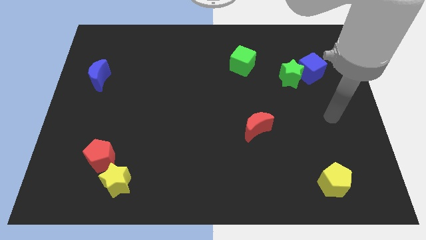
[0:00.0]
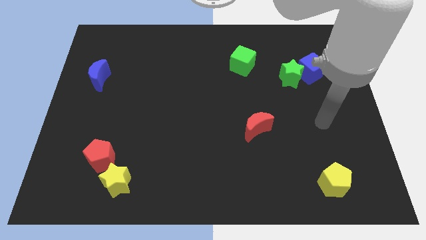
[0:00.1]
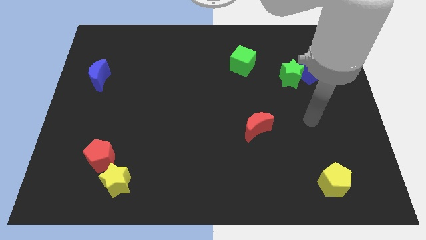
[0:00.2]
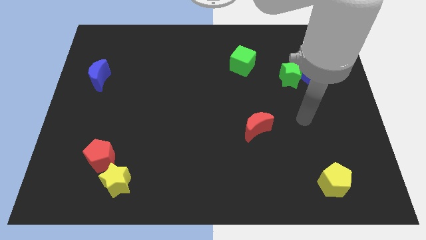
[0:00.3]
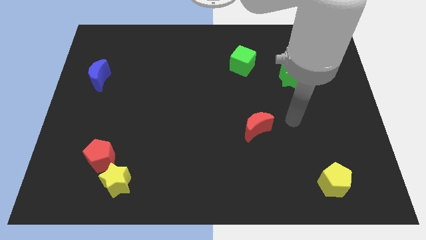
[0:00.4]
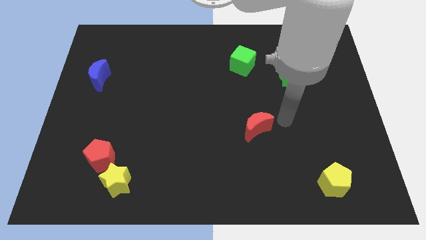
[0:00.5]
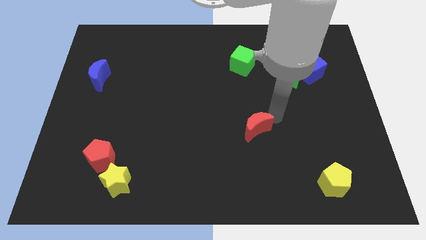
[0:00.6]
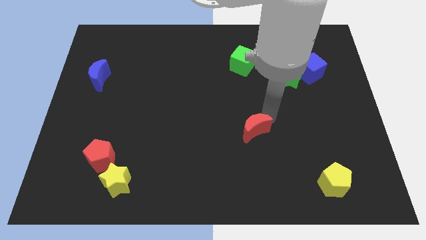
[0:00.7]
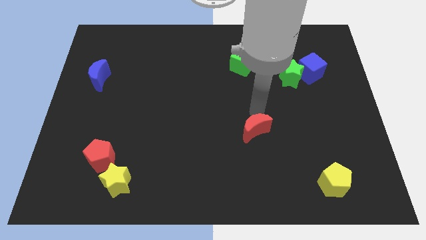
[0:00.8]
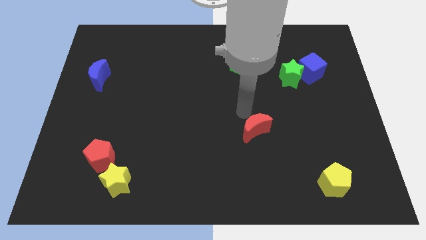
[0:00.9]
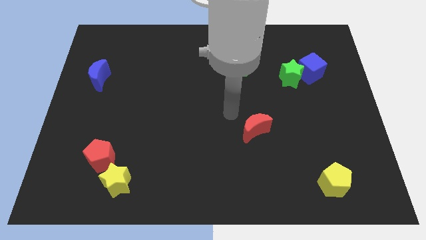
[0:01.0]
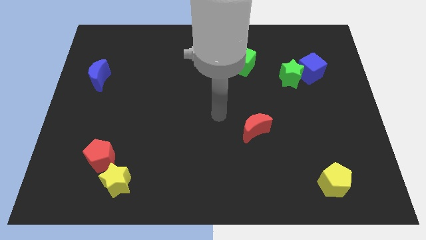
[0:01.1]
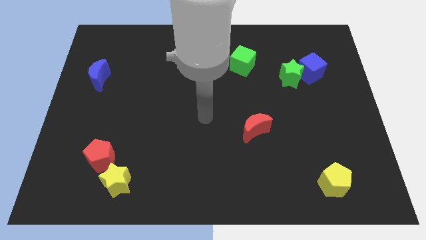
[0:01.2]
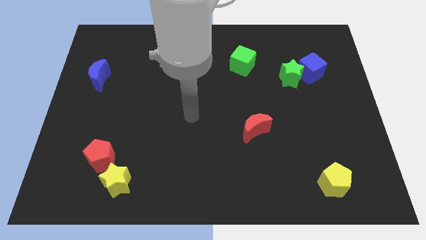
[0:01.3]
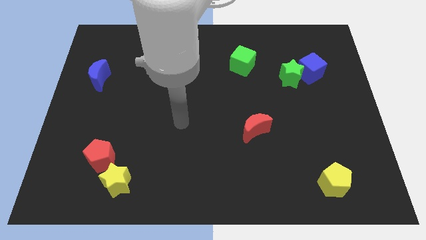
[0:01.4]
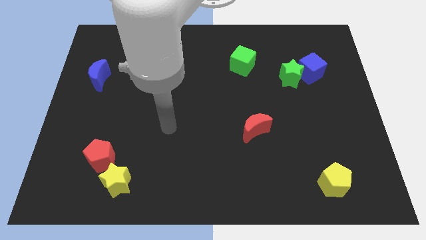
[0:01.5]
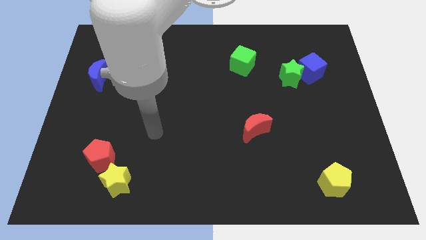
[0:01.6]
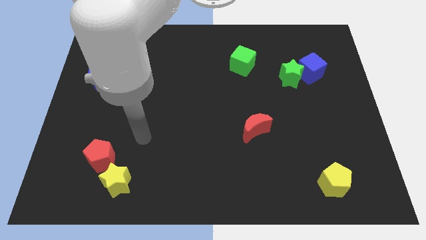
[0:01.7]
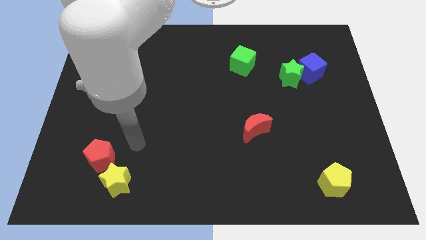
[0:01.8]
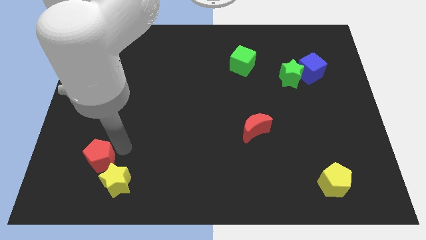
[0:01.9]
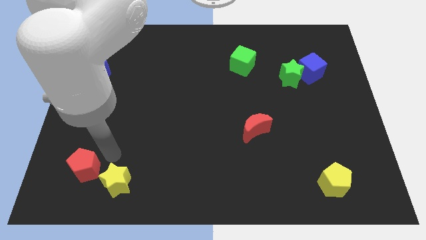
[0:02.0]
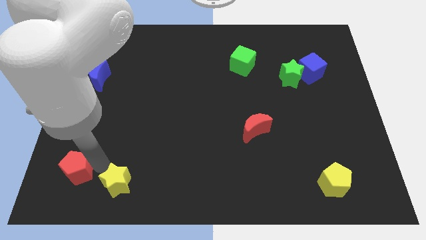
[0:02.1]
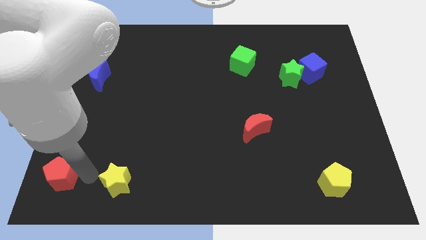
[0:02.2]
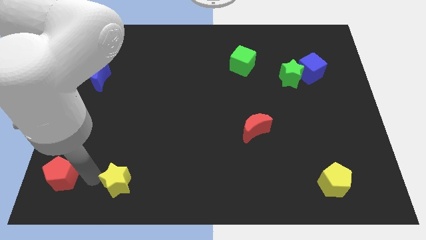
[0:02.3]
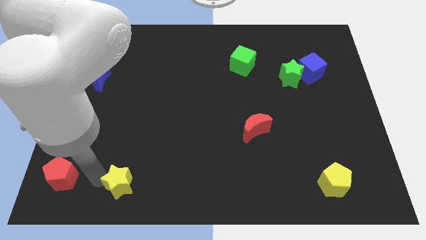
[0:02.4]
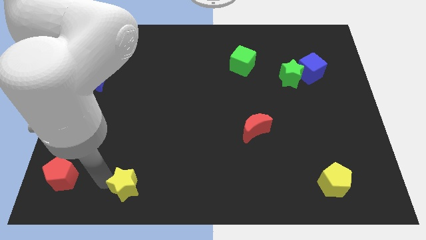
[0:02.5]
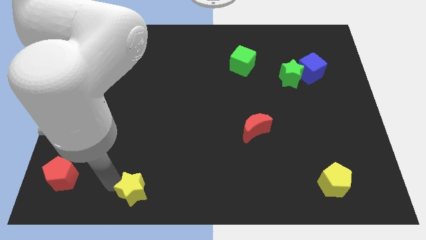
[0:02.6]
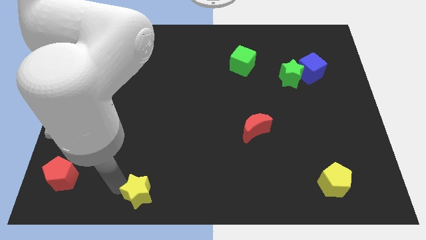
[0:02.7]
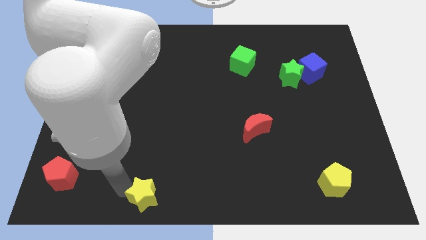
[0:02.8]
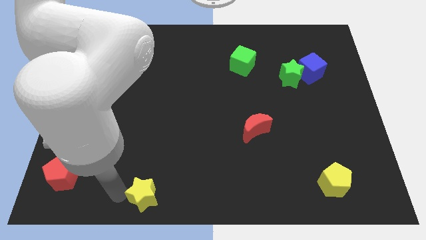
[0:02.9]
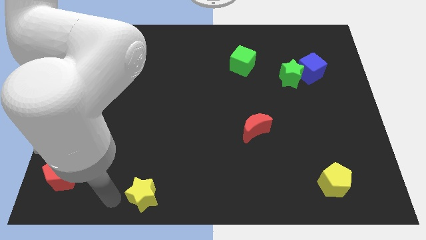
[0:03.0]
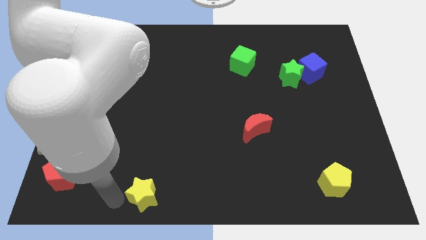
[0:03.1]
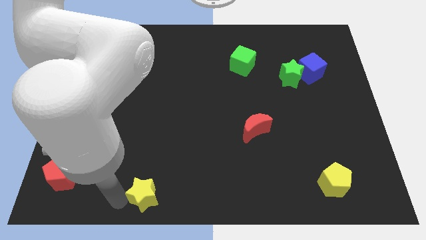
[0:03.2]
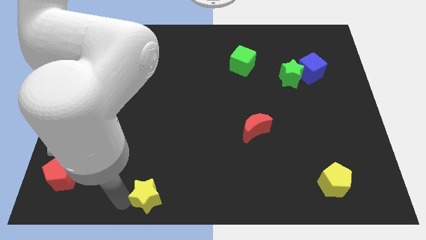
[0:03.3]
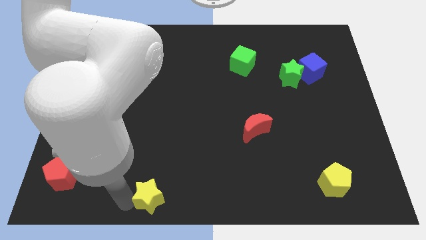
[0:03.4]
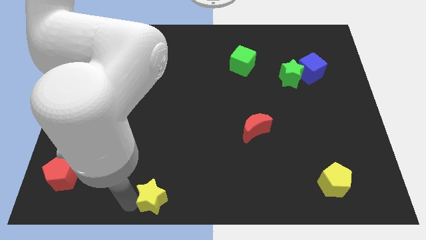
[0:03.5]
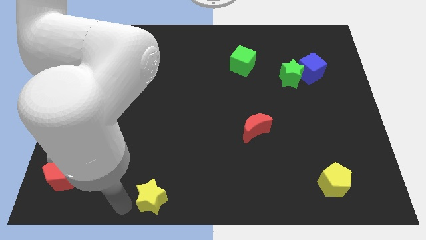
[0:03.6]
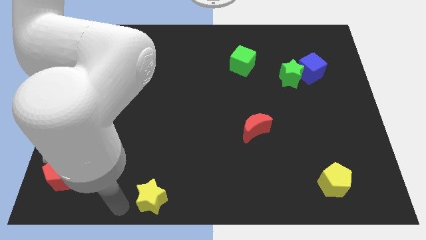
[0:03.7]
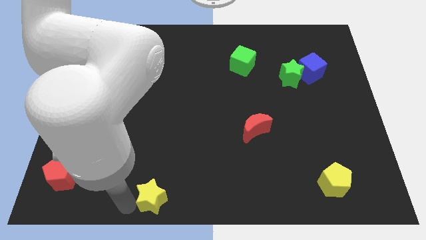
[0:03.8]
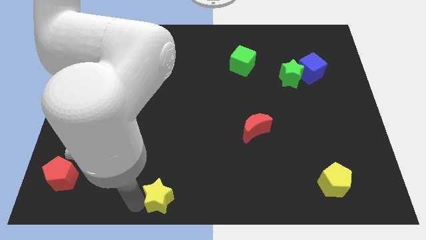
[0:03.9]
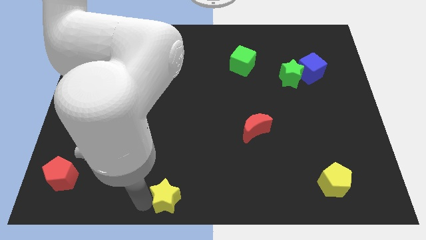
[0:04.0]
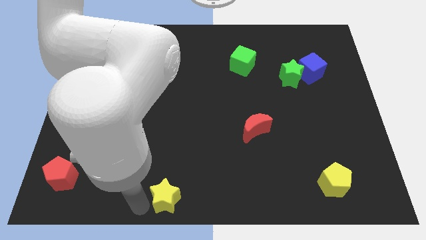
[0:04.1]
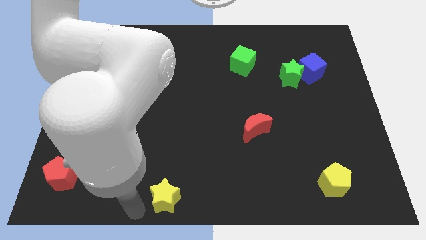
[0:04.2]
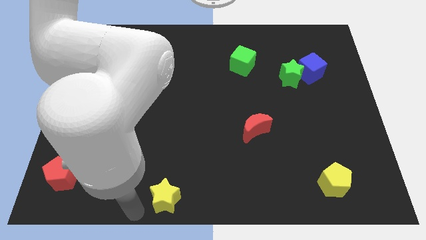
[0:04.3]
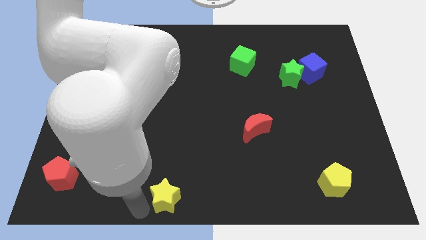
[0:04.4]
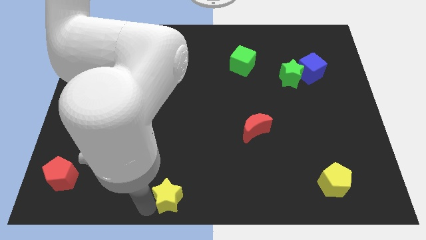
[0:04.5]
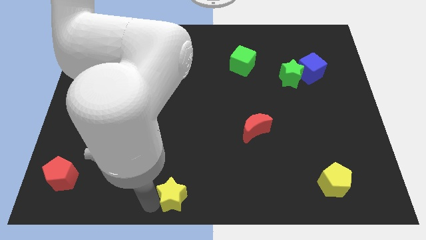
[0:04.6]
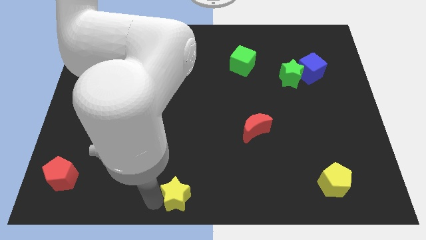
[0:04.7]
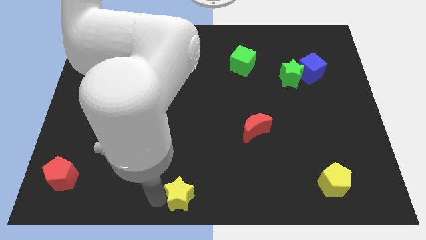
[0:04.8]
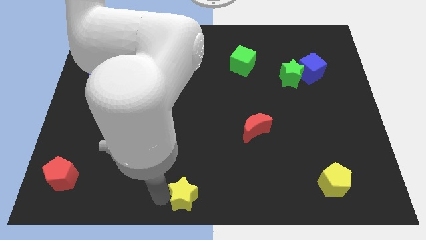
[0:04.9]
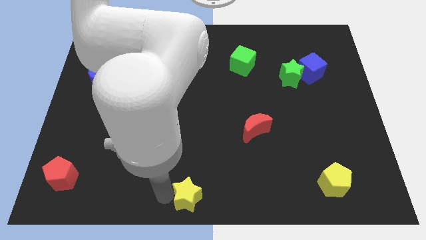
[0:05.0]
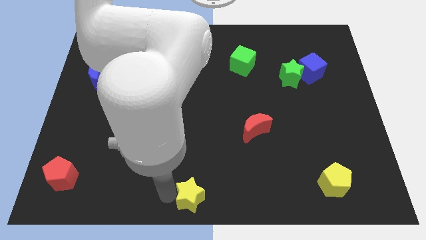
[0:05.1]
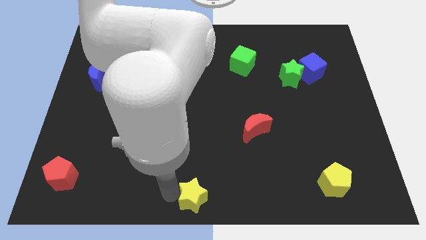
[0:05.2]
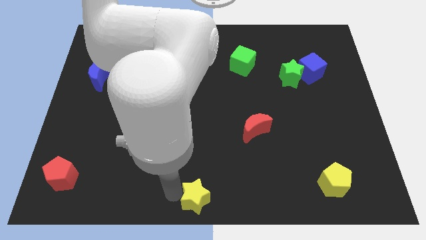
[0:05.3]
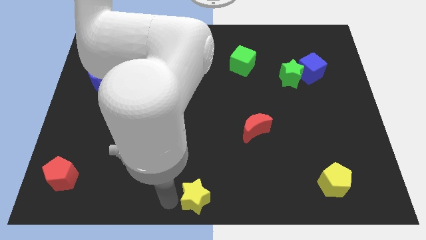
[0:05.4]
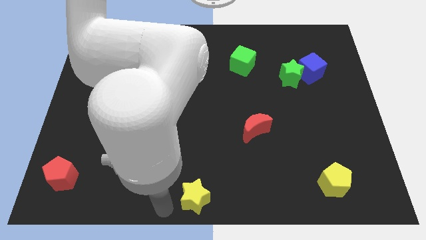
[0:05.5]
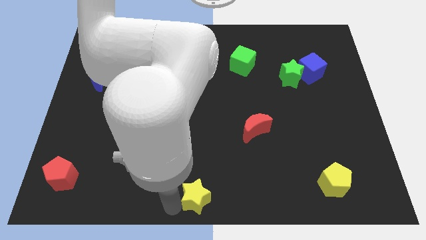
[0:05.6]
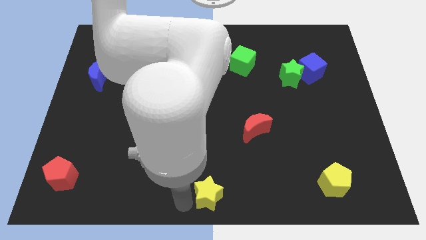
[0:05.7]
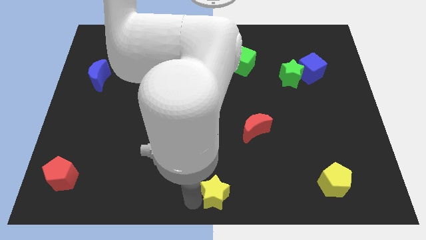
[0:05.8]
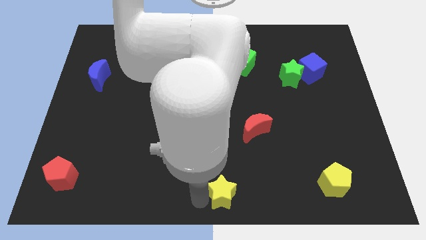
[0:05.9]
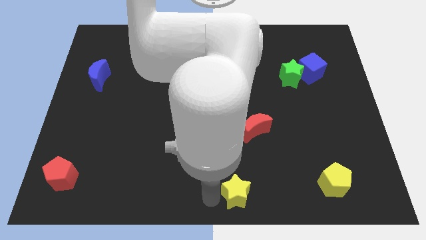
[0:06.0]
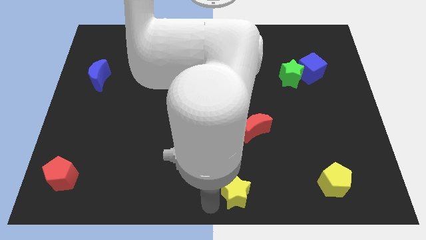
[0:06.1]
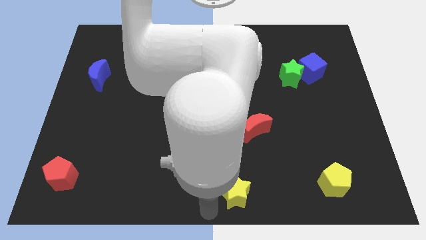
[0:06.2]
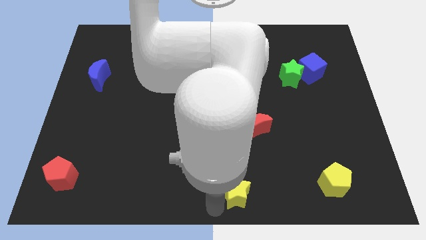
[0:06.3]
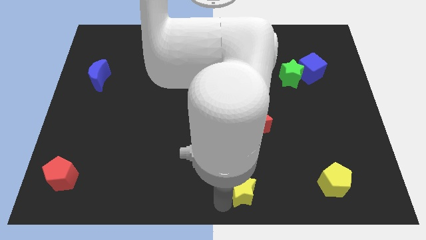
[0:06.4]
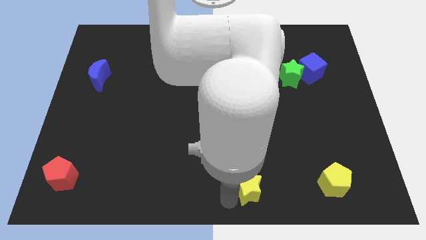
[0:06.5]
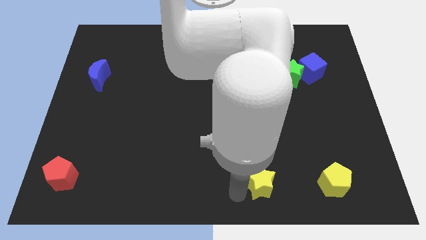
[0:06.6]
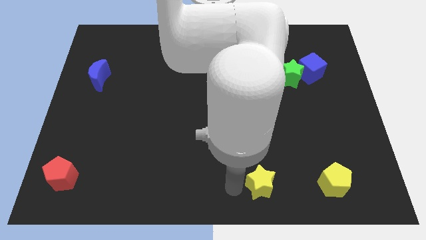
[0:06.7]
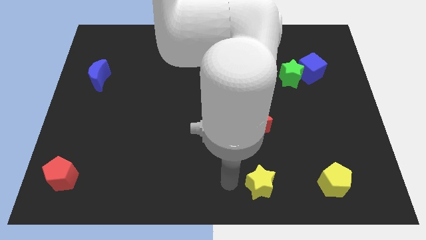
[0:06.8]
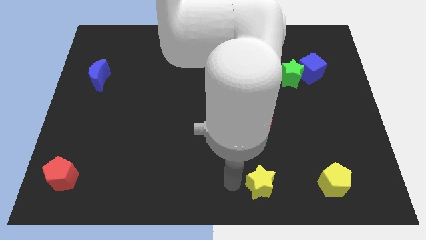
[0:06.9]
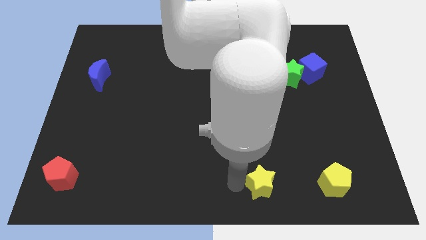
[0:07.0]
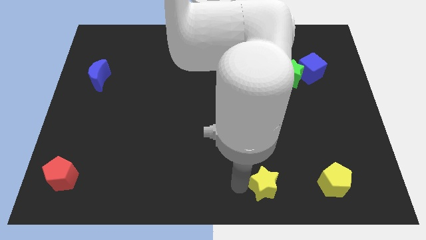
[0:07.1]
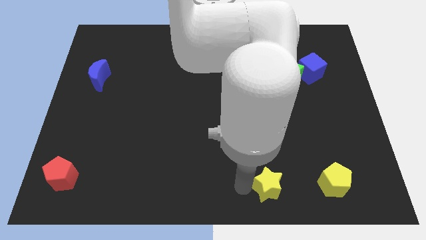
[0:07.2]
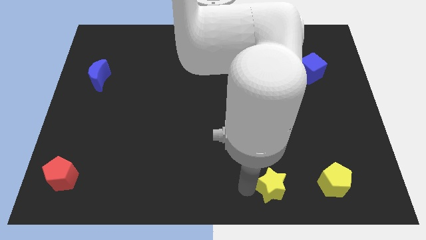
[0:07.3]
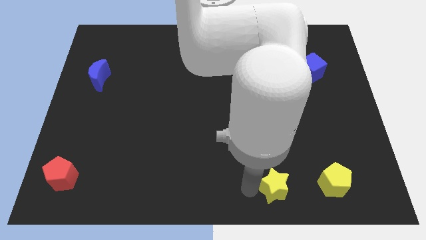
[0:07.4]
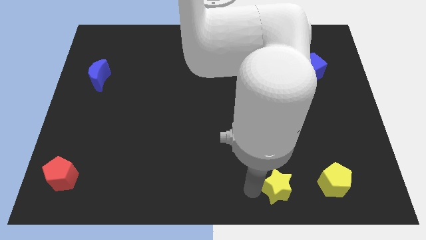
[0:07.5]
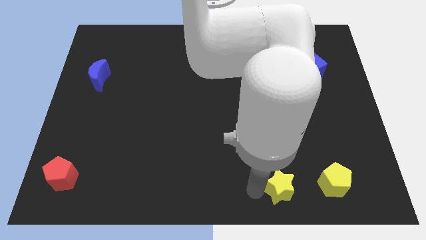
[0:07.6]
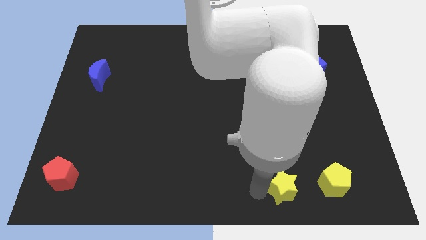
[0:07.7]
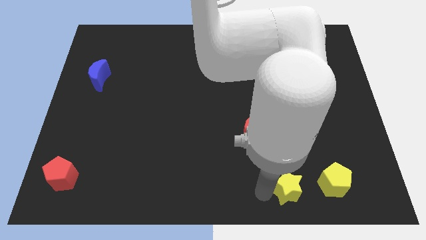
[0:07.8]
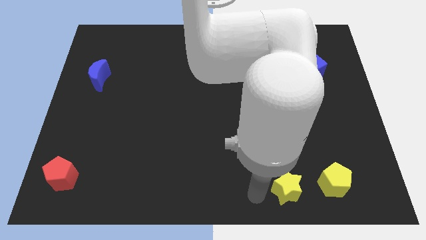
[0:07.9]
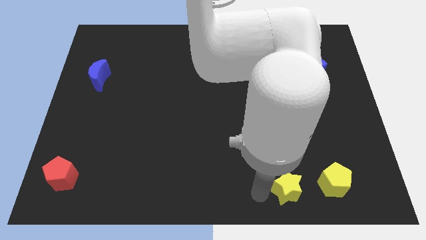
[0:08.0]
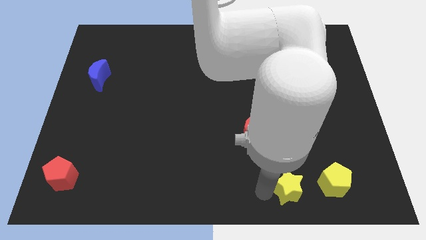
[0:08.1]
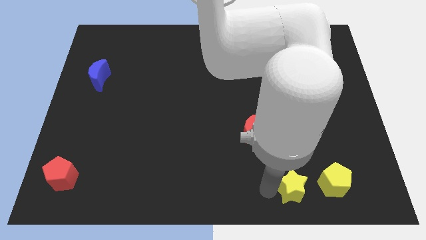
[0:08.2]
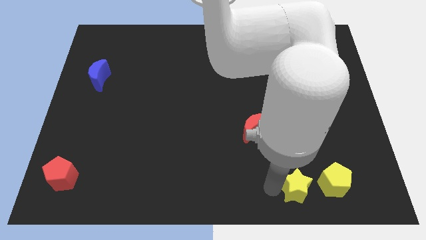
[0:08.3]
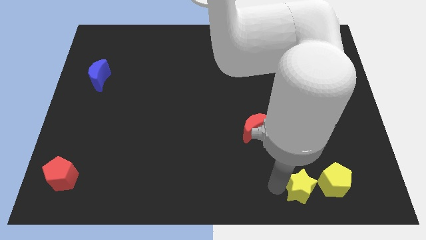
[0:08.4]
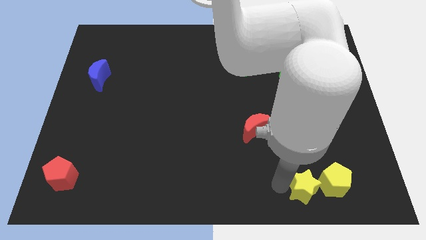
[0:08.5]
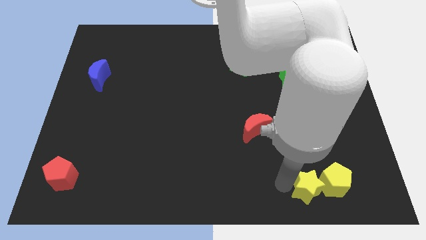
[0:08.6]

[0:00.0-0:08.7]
push the yellow star next to the yellow pentagon
